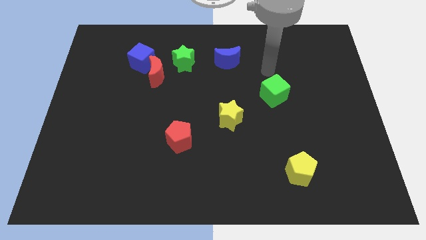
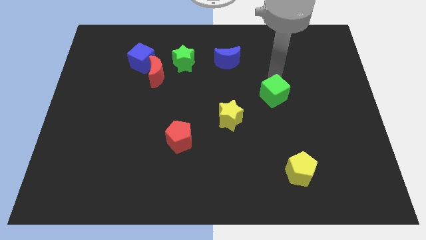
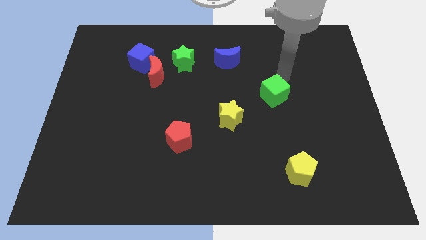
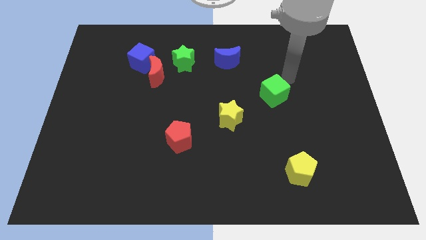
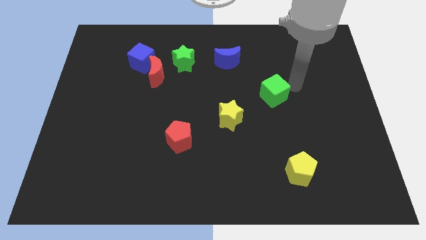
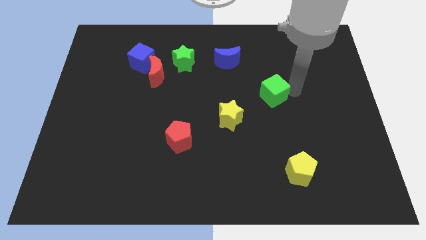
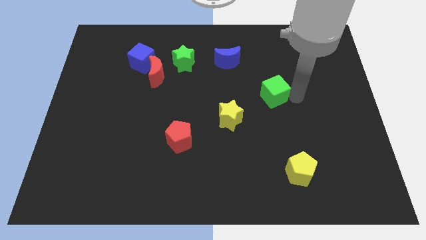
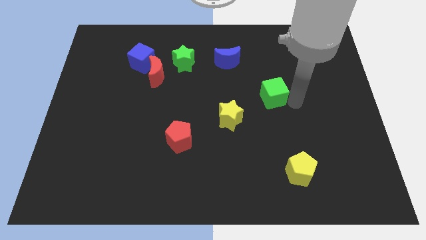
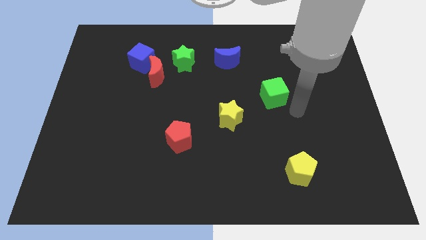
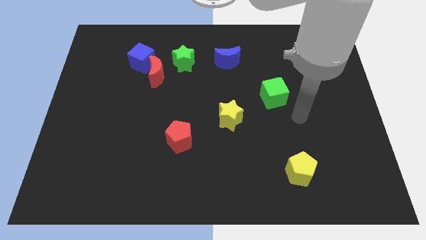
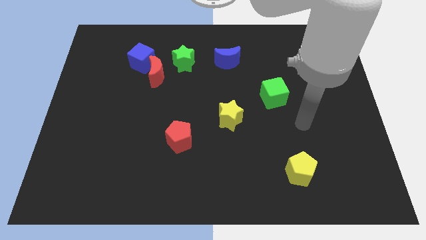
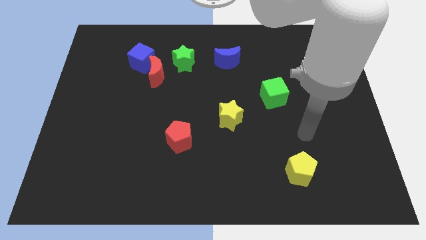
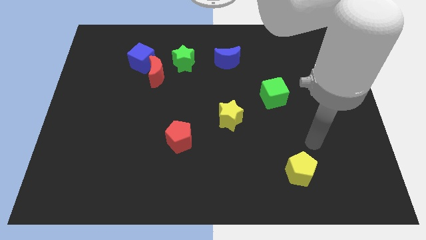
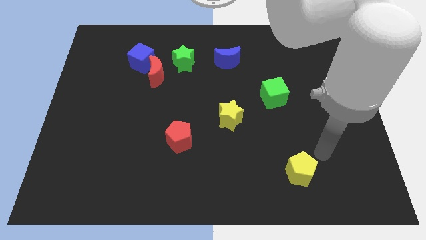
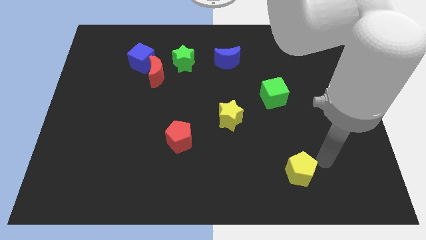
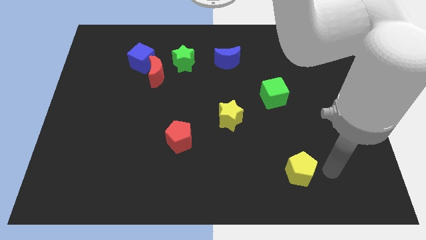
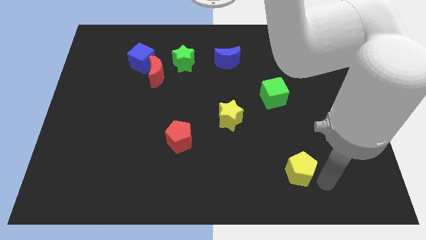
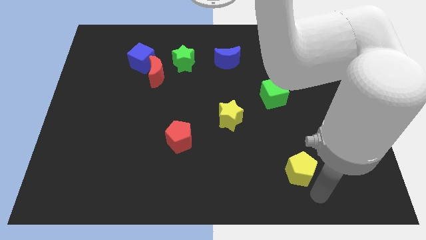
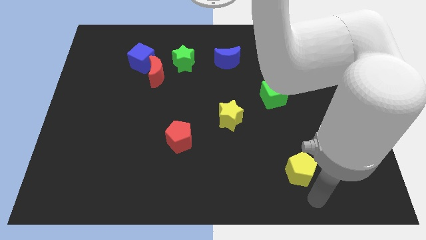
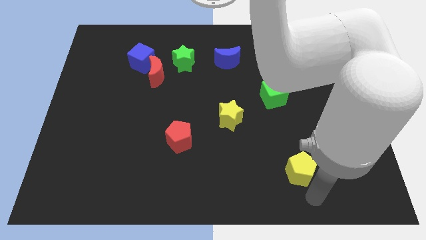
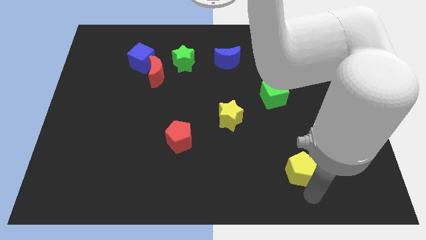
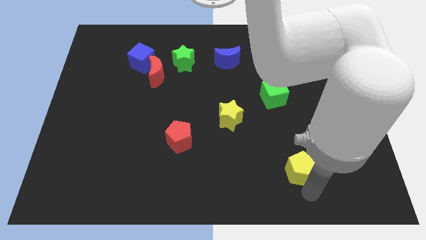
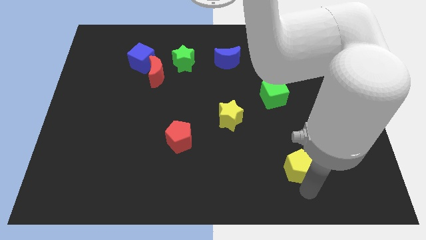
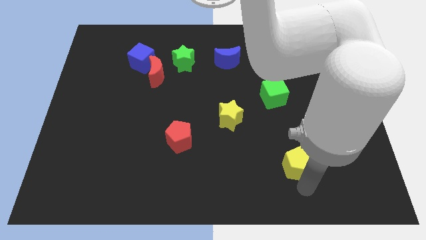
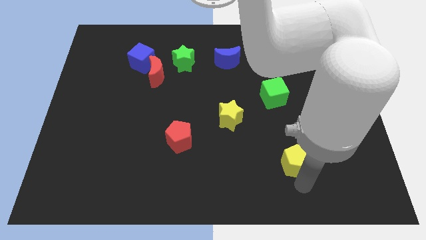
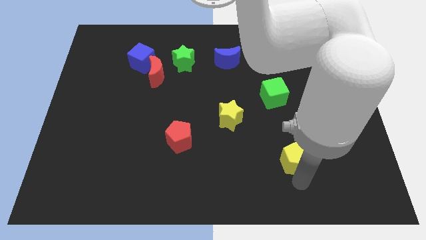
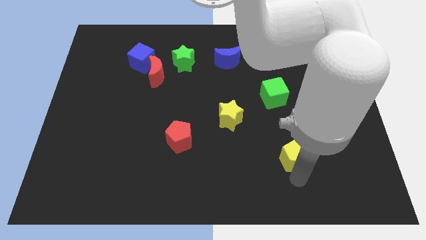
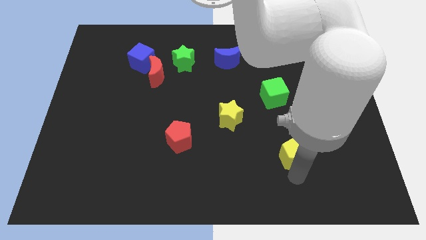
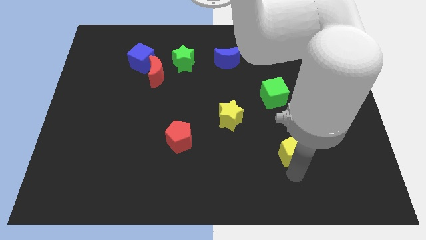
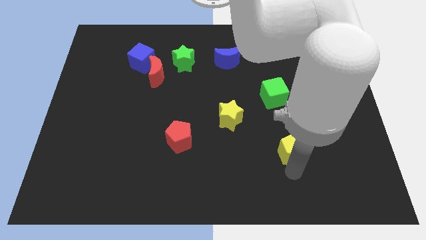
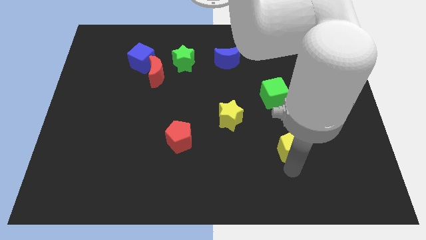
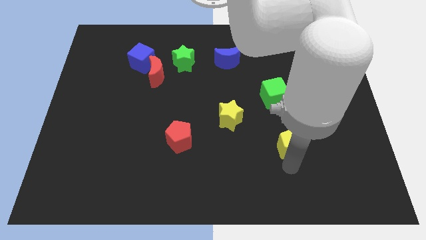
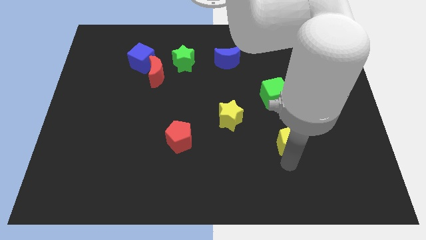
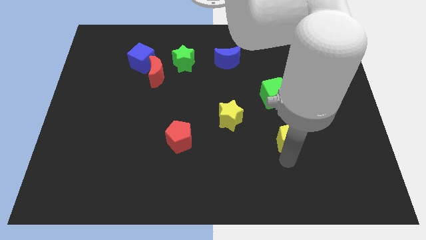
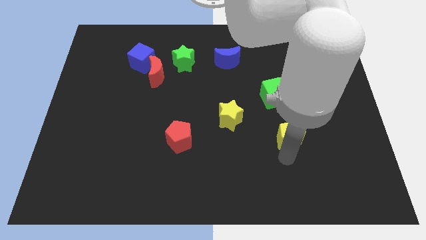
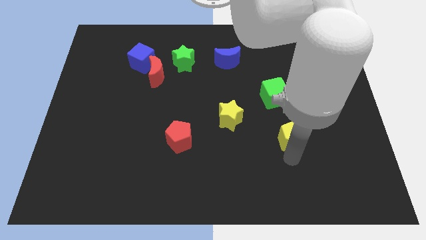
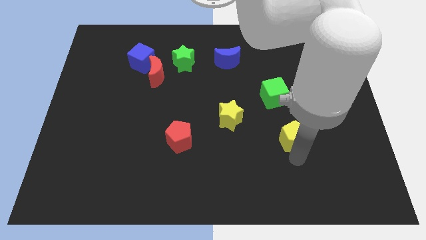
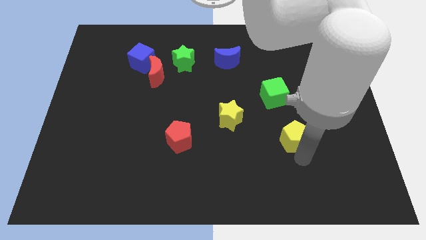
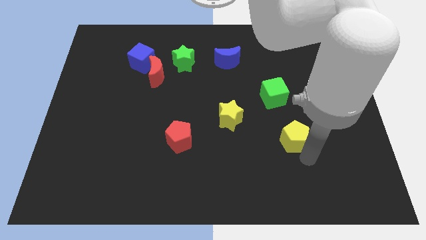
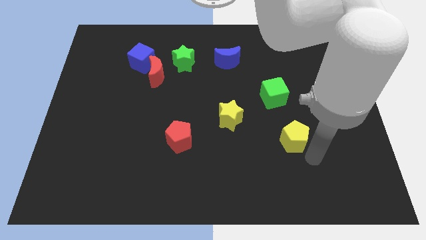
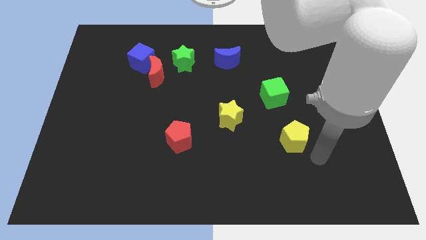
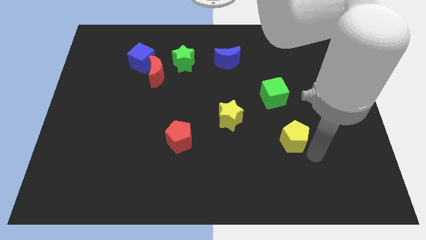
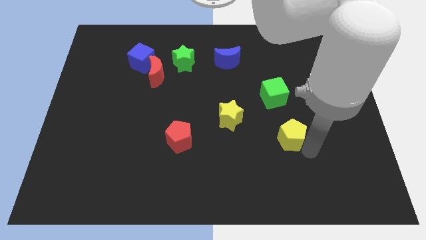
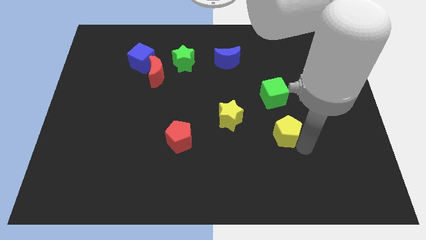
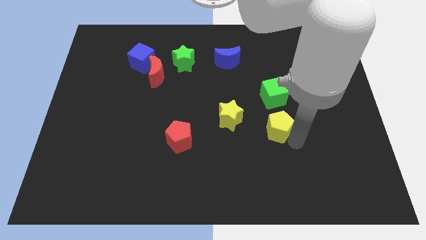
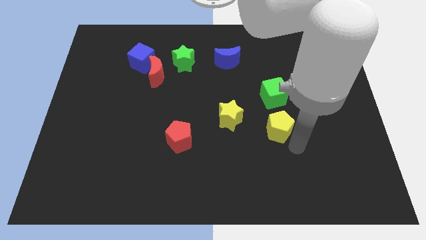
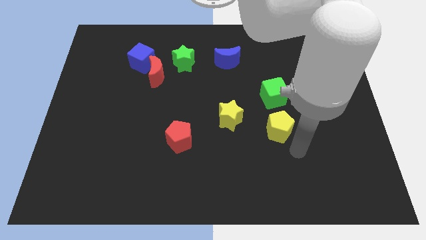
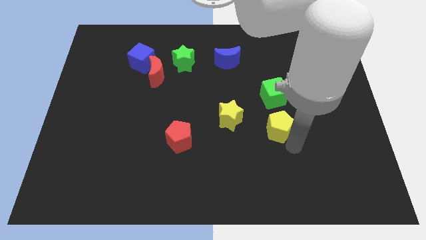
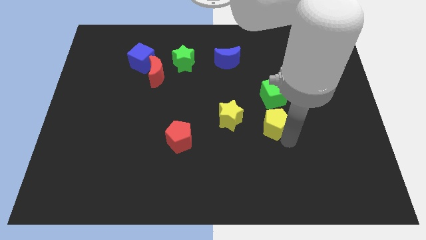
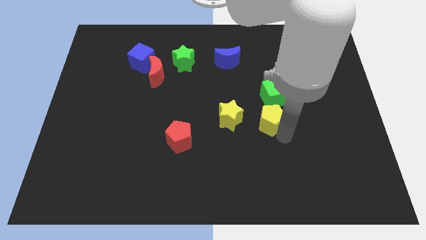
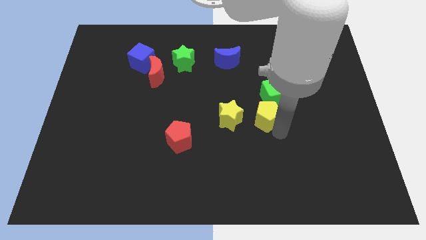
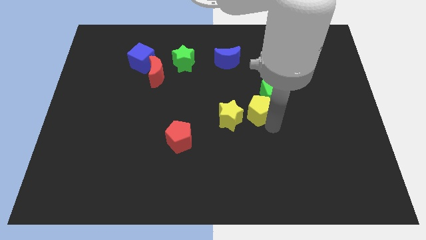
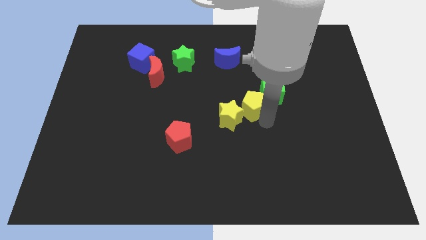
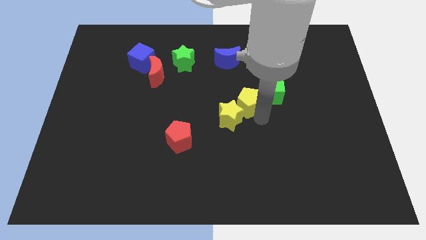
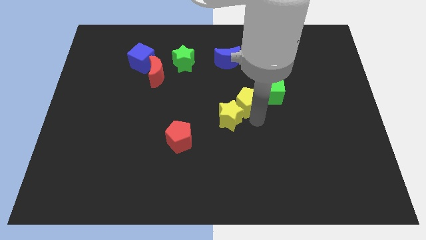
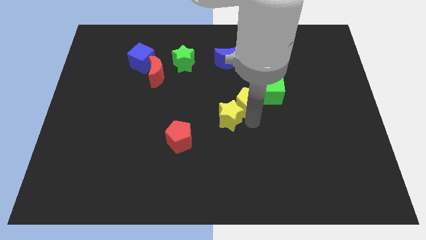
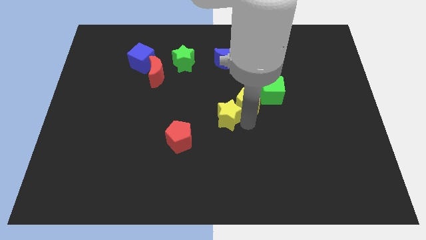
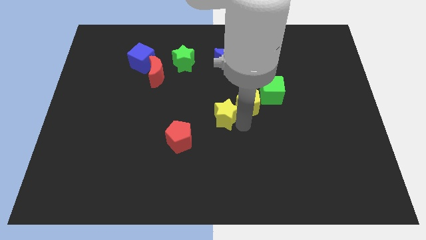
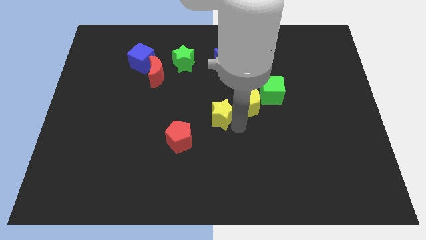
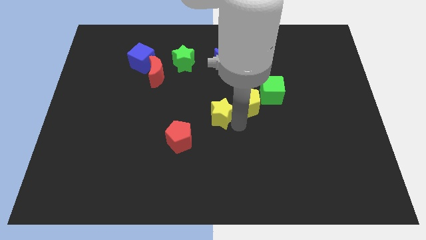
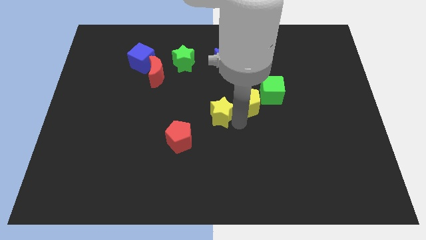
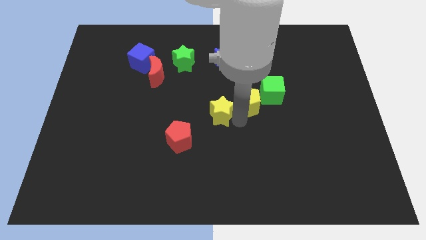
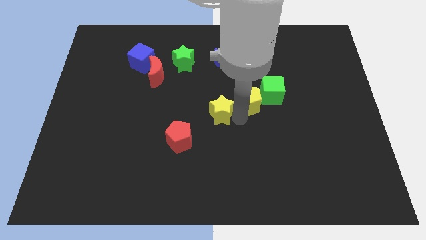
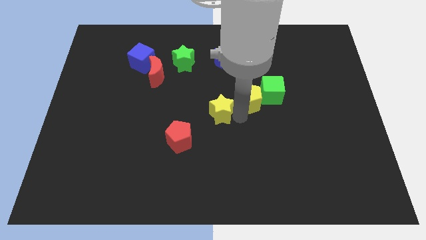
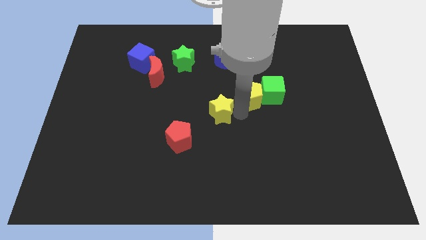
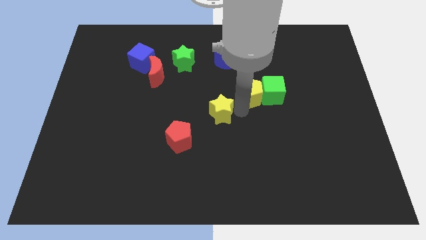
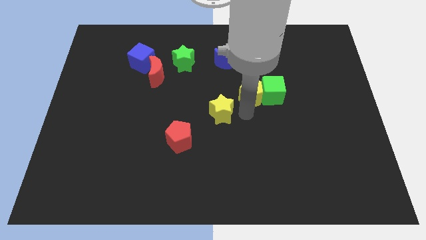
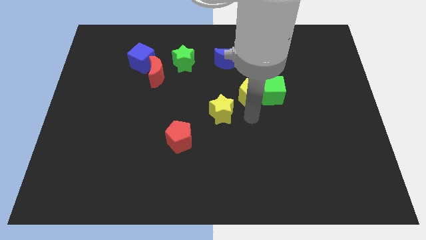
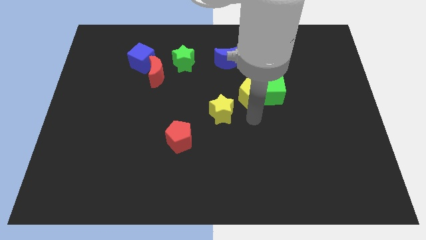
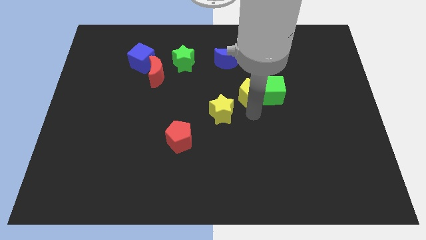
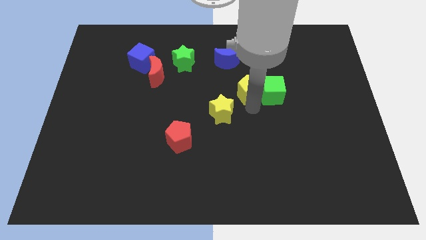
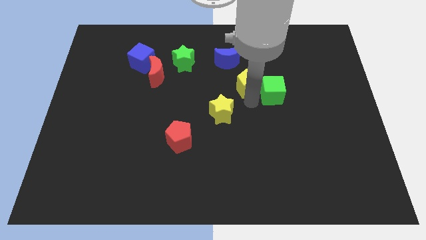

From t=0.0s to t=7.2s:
move the yellow pentagon diagonally down and to the right of the blue moon
